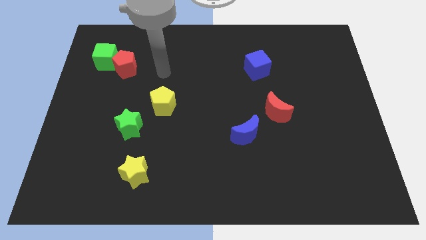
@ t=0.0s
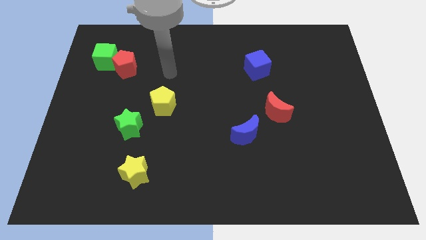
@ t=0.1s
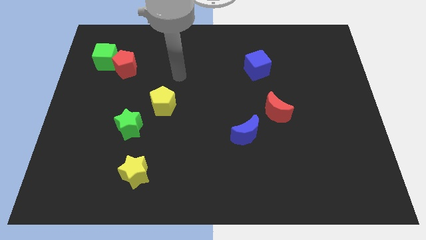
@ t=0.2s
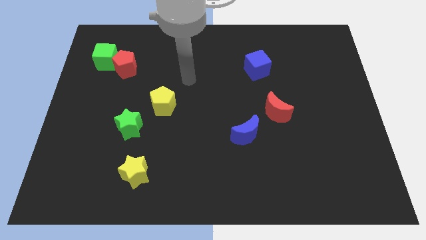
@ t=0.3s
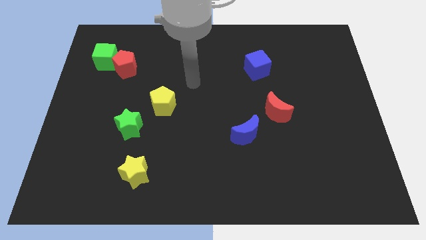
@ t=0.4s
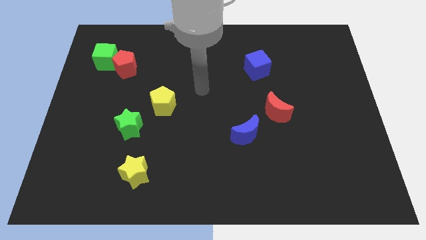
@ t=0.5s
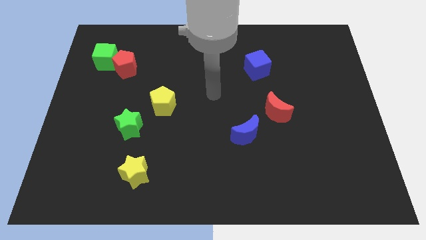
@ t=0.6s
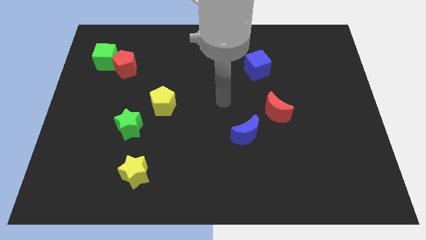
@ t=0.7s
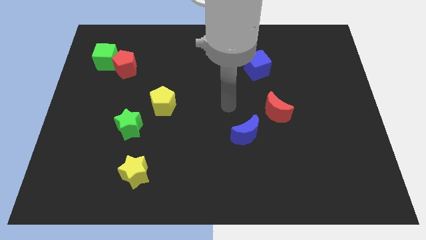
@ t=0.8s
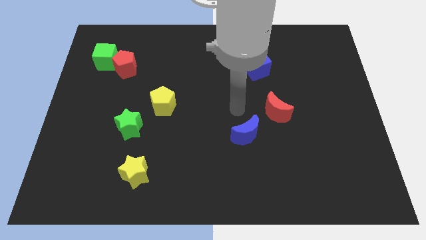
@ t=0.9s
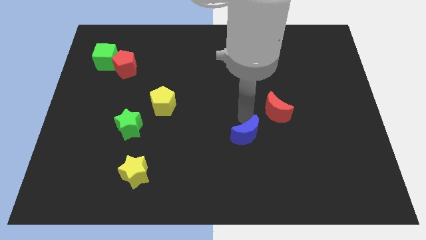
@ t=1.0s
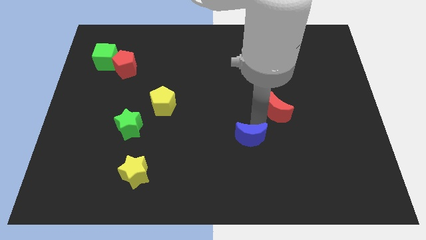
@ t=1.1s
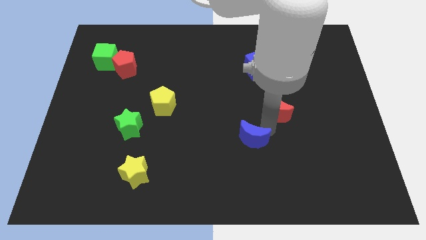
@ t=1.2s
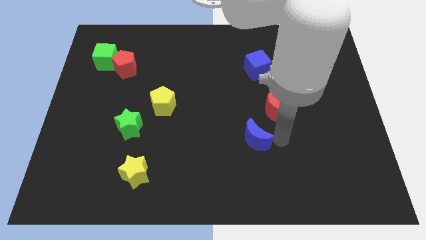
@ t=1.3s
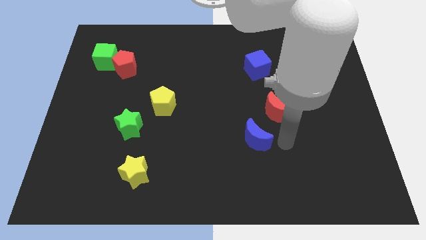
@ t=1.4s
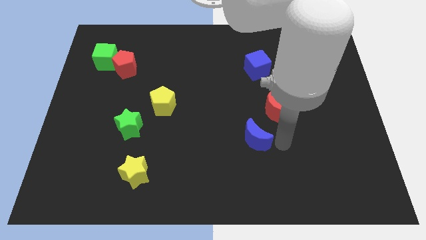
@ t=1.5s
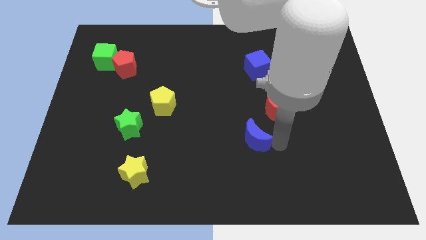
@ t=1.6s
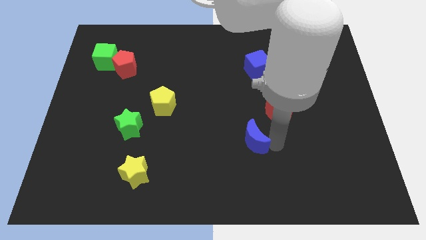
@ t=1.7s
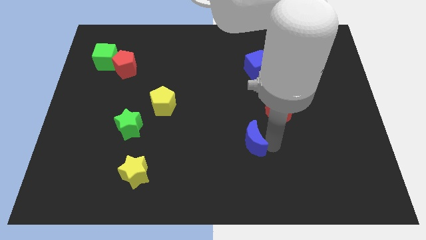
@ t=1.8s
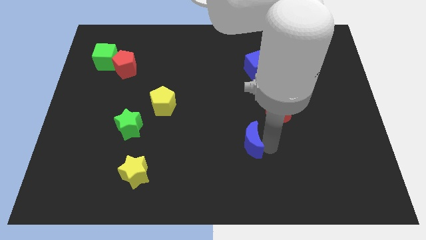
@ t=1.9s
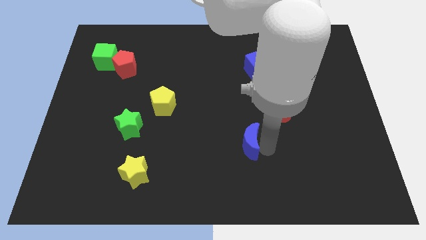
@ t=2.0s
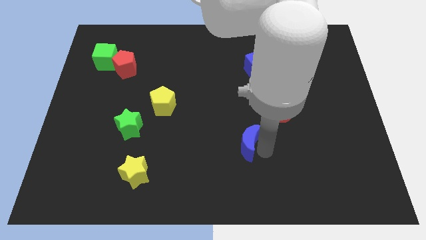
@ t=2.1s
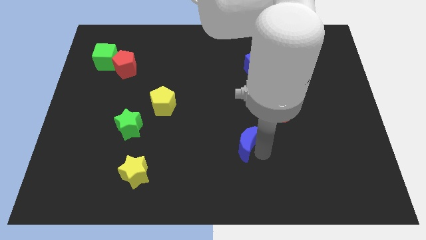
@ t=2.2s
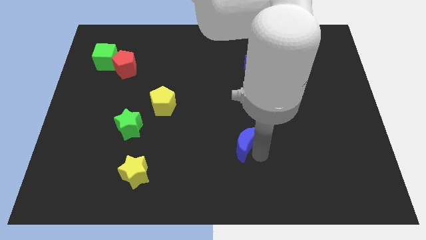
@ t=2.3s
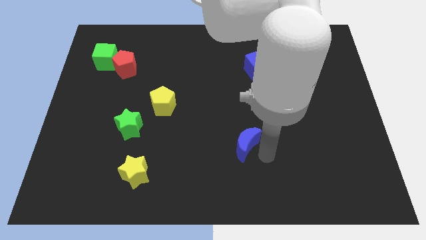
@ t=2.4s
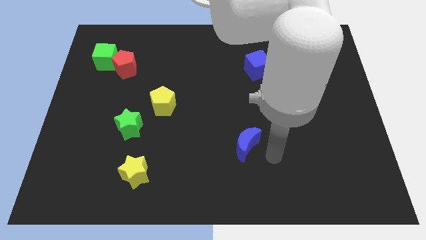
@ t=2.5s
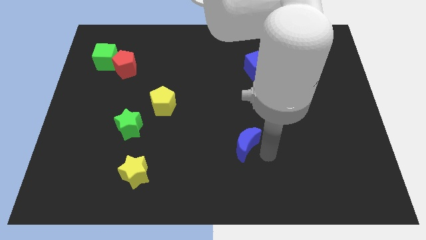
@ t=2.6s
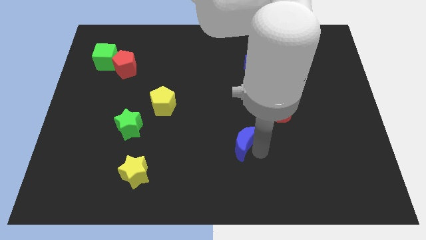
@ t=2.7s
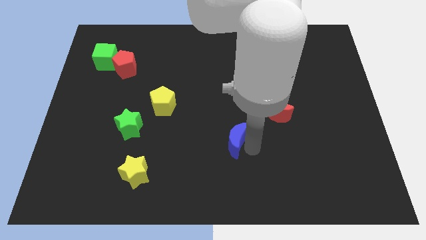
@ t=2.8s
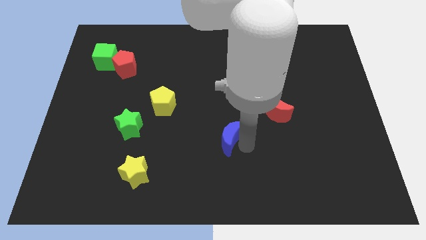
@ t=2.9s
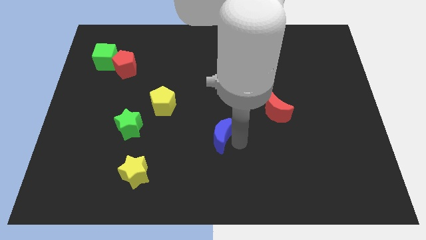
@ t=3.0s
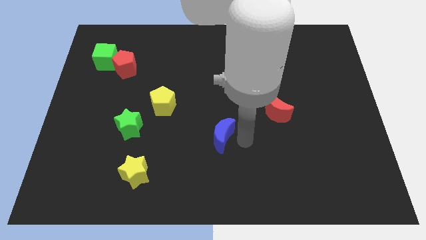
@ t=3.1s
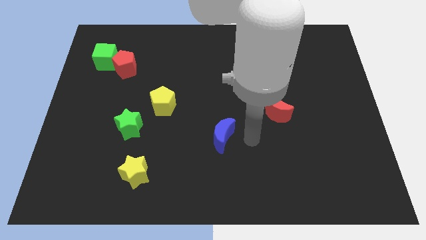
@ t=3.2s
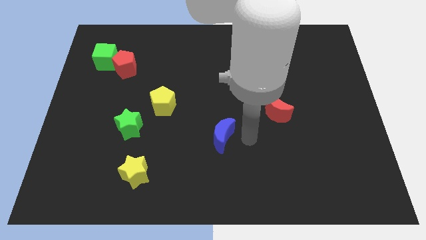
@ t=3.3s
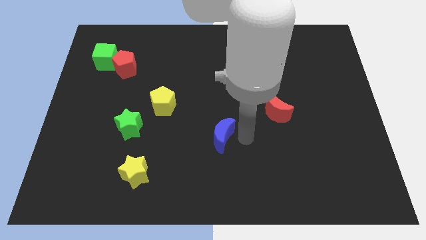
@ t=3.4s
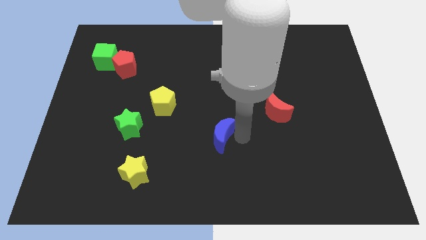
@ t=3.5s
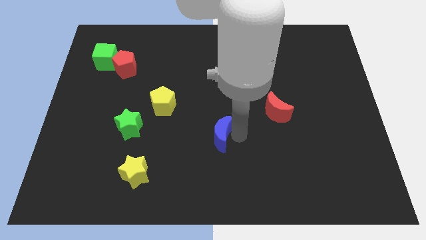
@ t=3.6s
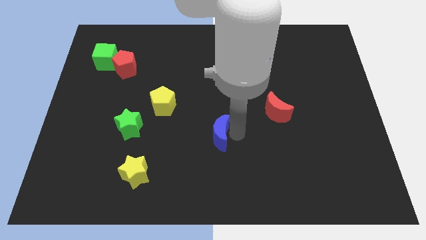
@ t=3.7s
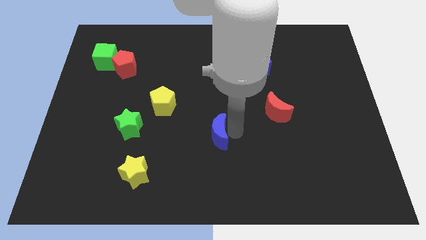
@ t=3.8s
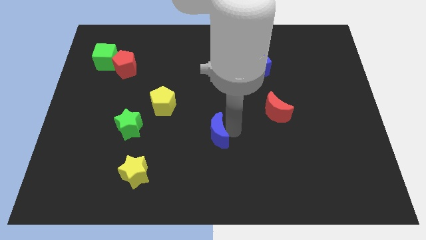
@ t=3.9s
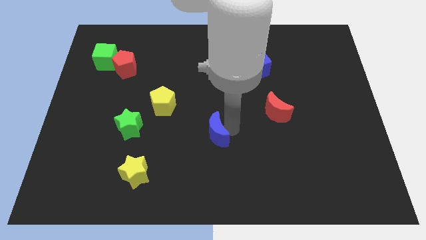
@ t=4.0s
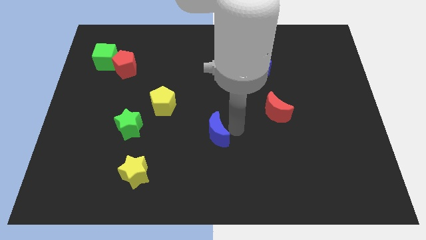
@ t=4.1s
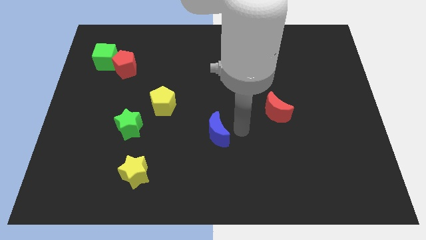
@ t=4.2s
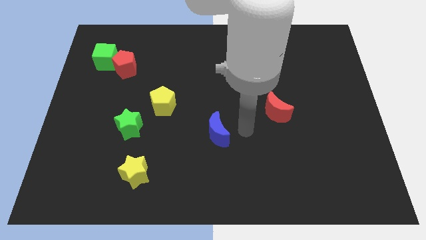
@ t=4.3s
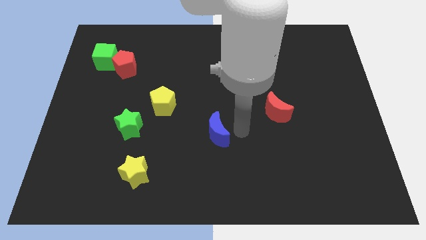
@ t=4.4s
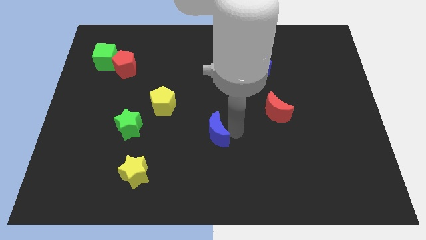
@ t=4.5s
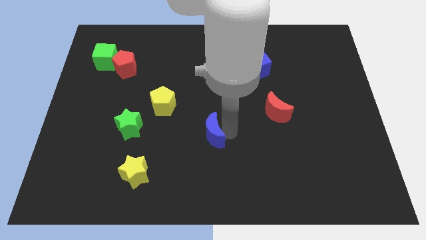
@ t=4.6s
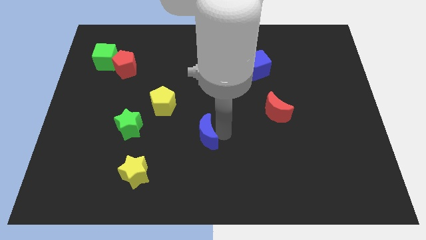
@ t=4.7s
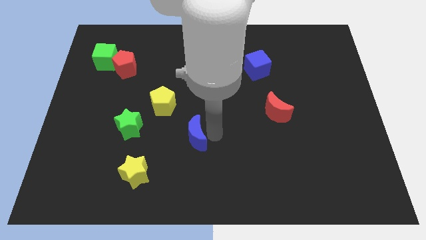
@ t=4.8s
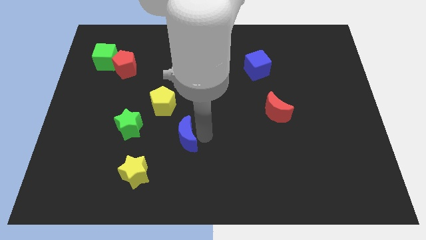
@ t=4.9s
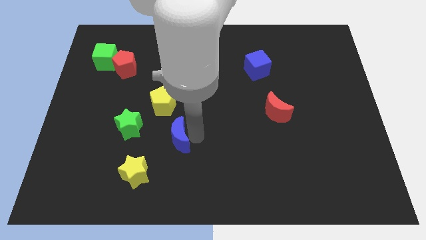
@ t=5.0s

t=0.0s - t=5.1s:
move the blue moon to the bottom side of the yellow pentagon

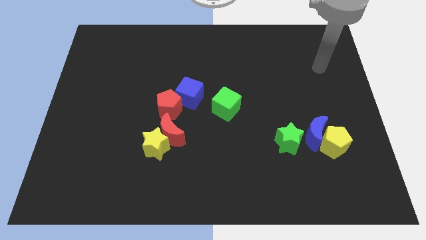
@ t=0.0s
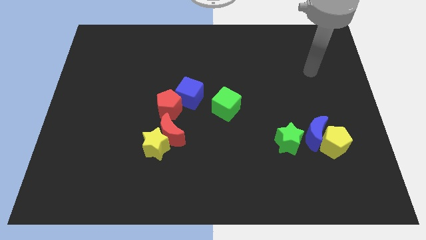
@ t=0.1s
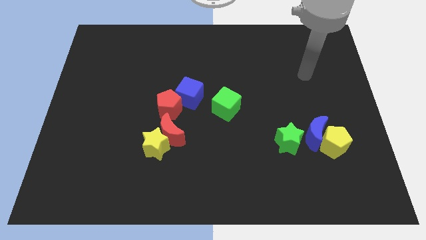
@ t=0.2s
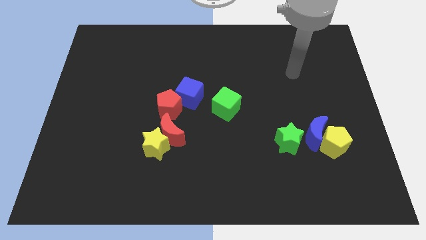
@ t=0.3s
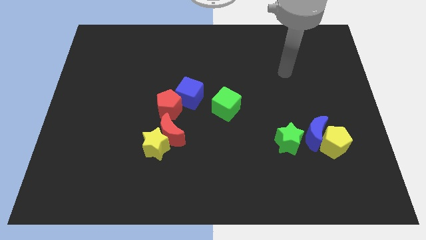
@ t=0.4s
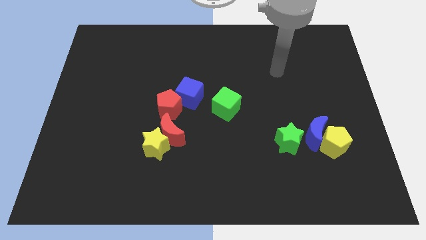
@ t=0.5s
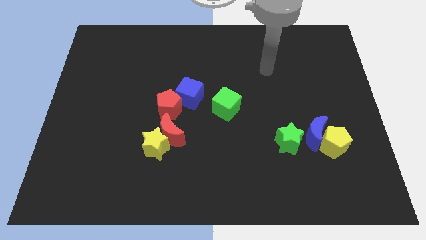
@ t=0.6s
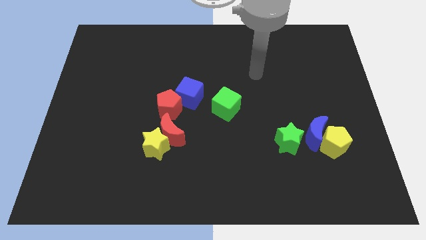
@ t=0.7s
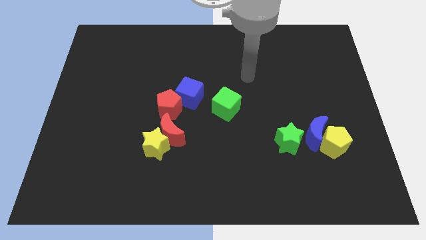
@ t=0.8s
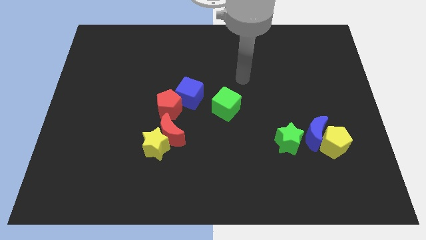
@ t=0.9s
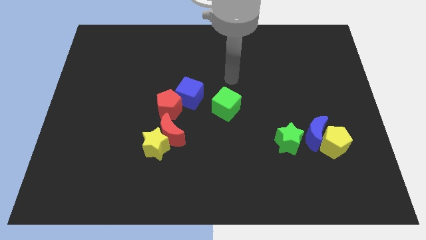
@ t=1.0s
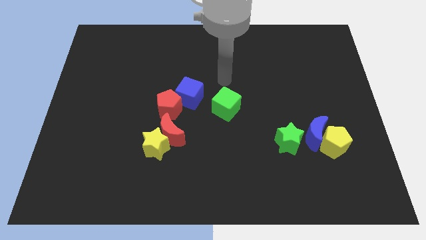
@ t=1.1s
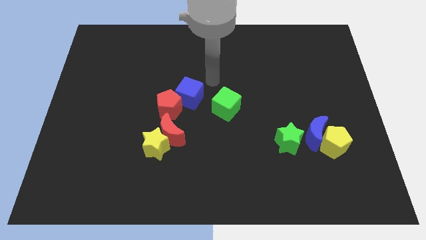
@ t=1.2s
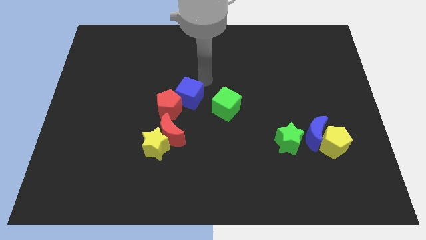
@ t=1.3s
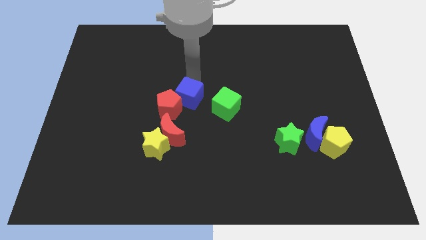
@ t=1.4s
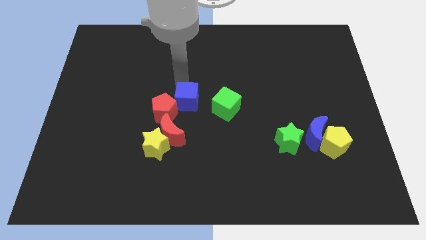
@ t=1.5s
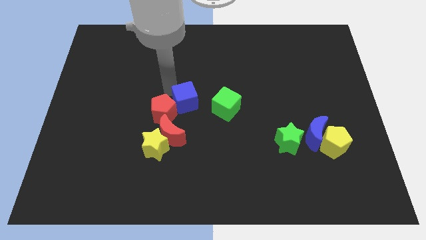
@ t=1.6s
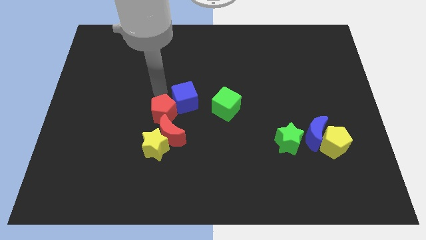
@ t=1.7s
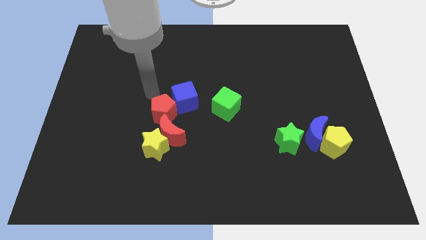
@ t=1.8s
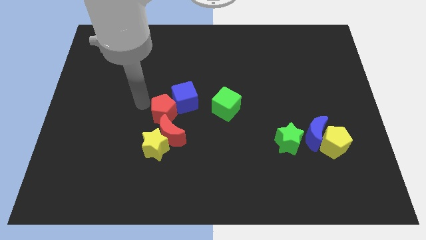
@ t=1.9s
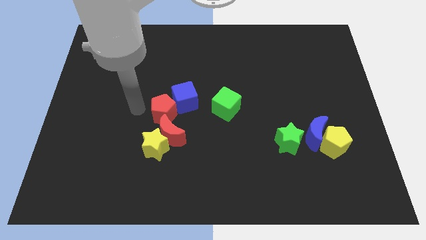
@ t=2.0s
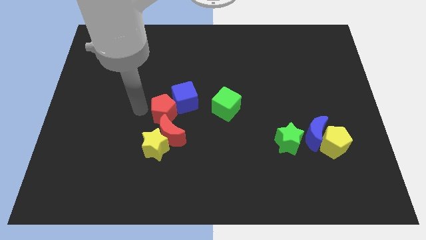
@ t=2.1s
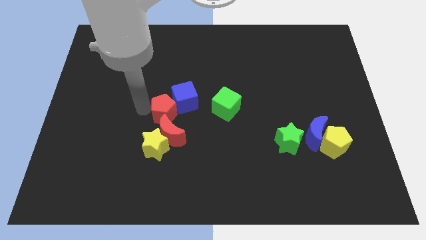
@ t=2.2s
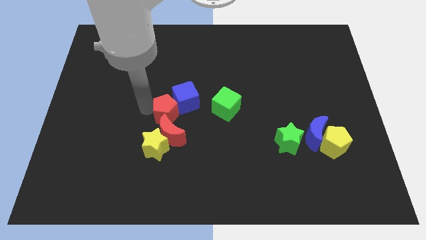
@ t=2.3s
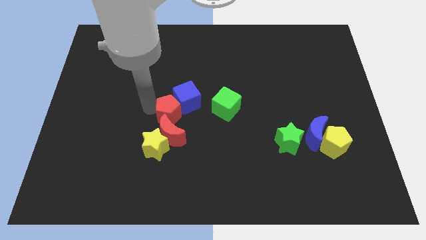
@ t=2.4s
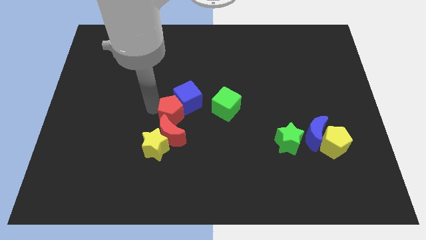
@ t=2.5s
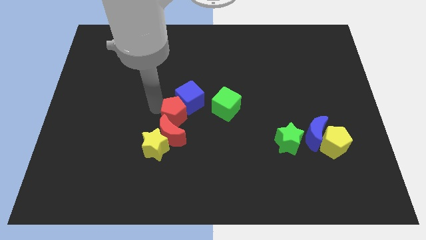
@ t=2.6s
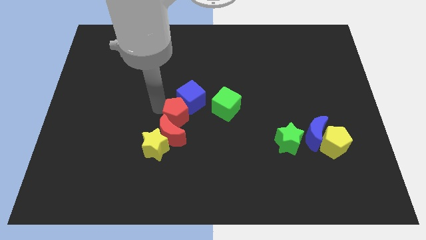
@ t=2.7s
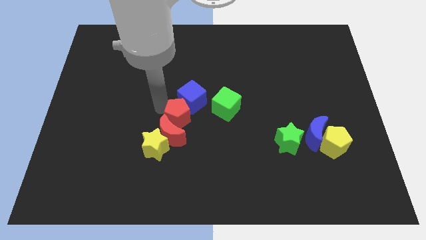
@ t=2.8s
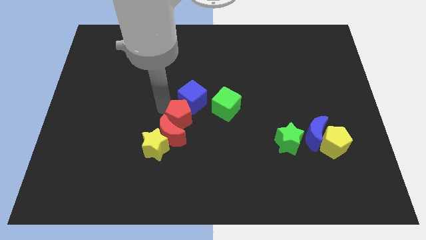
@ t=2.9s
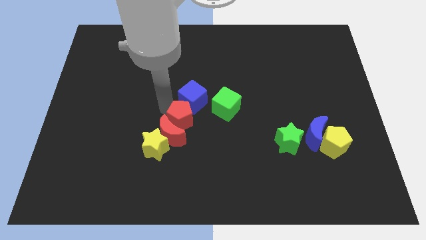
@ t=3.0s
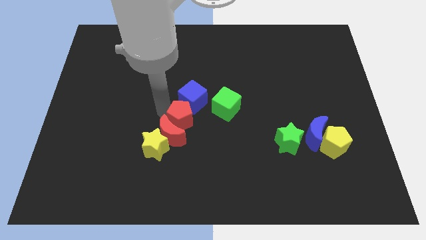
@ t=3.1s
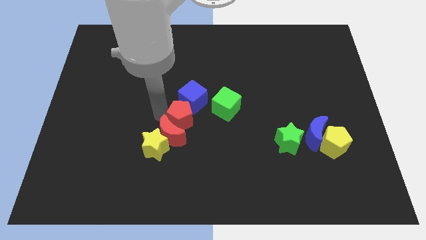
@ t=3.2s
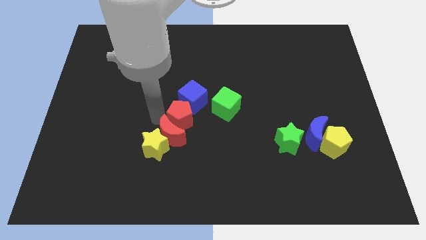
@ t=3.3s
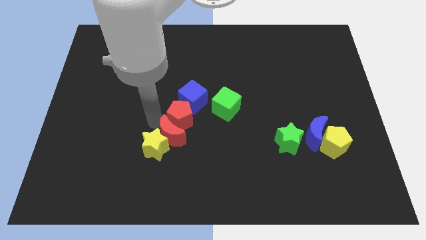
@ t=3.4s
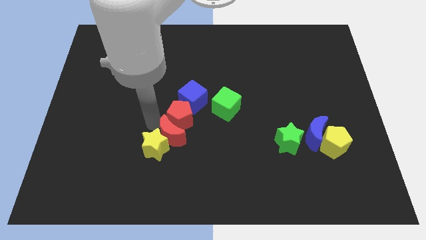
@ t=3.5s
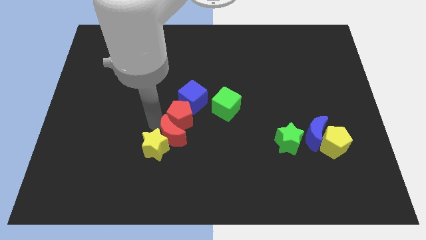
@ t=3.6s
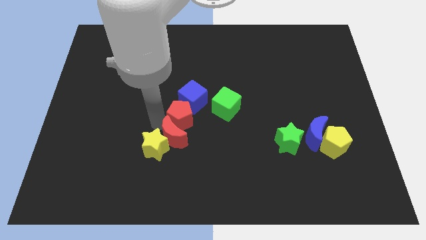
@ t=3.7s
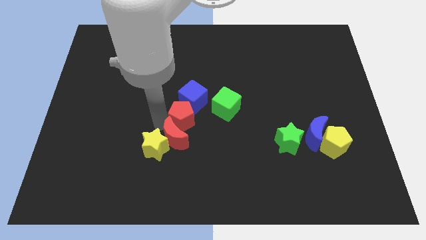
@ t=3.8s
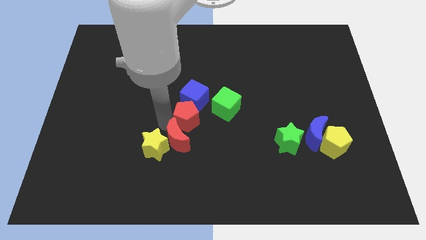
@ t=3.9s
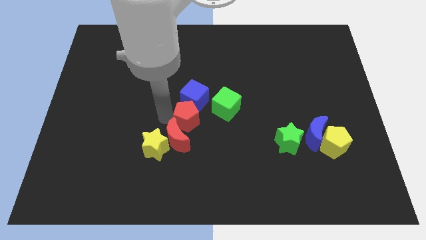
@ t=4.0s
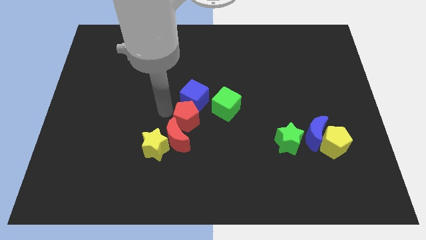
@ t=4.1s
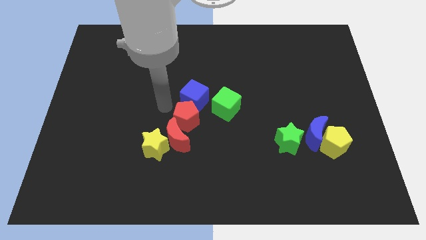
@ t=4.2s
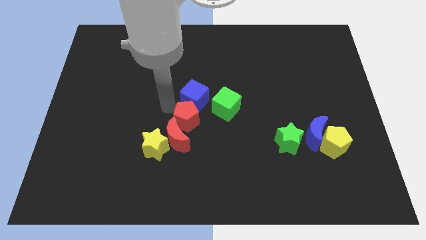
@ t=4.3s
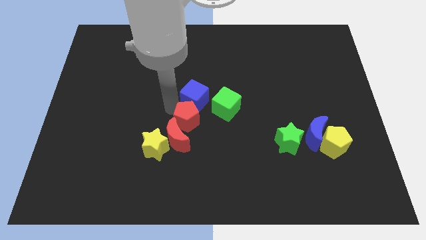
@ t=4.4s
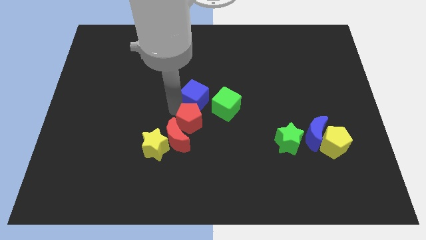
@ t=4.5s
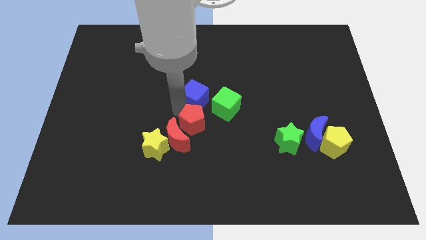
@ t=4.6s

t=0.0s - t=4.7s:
push the red pentagon just right of the red moon
